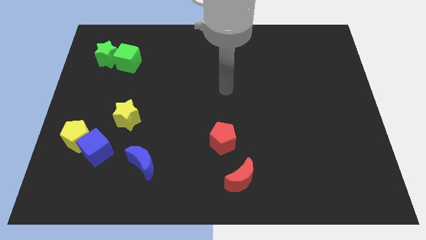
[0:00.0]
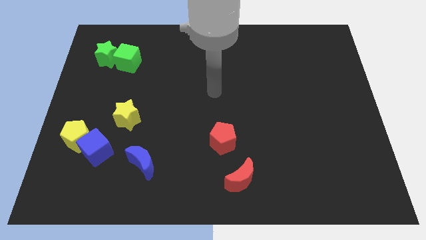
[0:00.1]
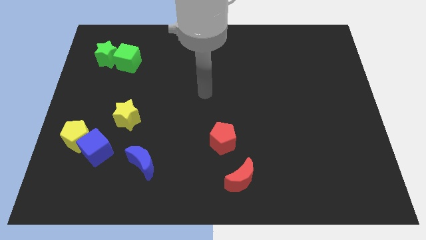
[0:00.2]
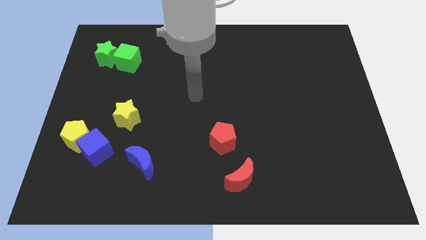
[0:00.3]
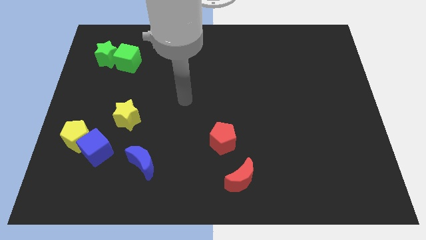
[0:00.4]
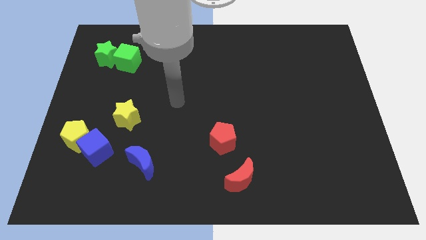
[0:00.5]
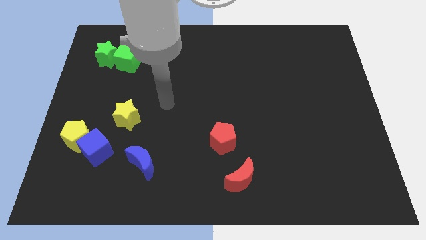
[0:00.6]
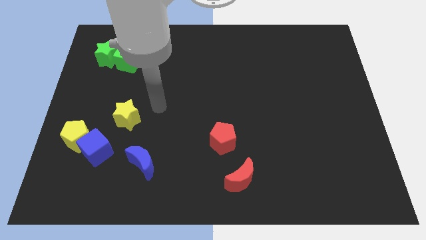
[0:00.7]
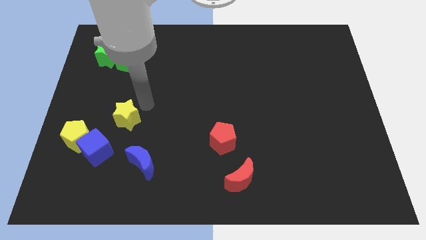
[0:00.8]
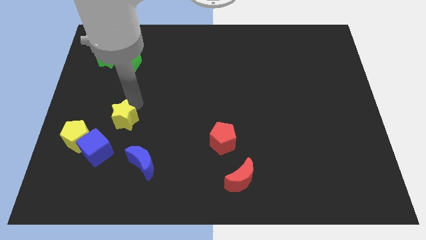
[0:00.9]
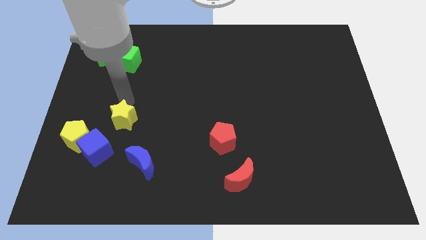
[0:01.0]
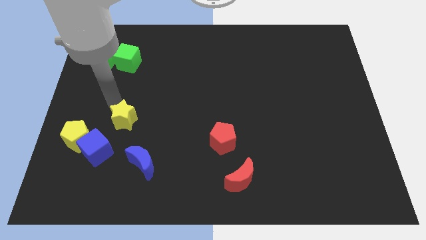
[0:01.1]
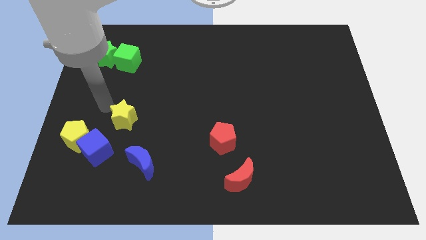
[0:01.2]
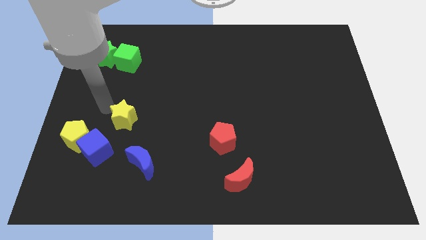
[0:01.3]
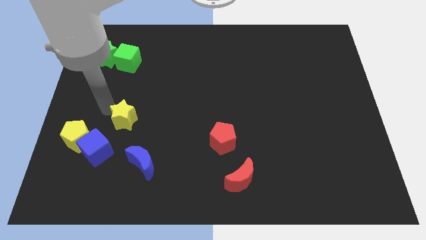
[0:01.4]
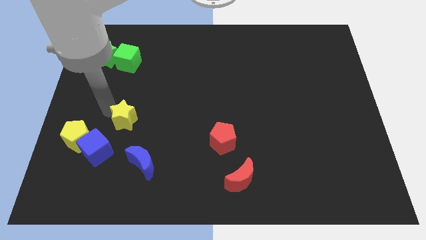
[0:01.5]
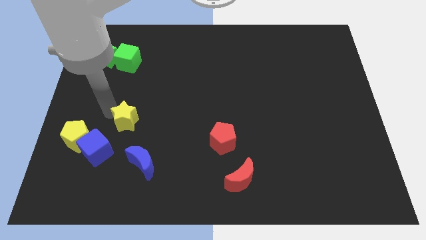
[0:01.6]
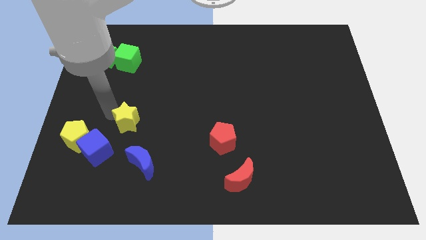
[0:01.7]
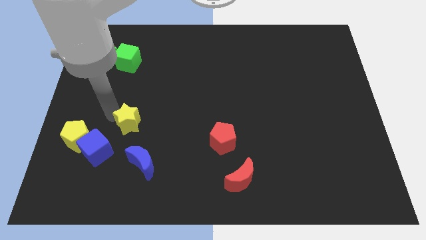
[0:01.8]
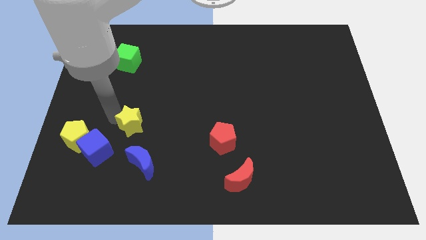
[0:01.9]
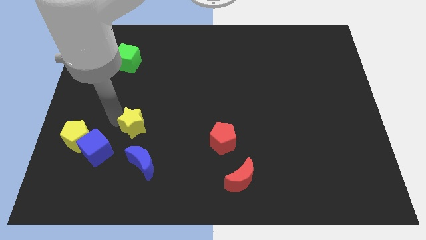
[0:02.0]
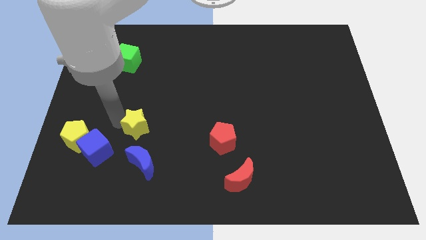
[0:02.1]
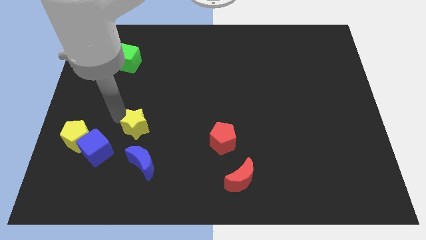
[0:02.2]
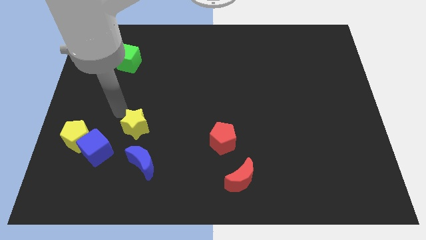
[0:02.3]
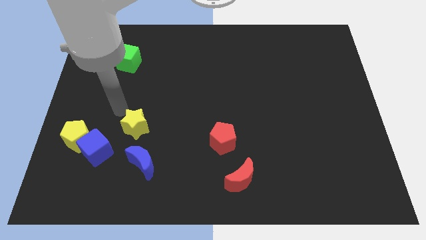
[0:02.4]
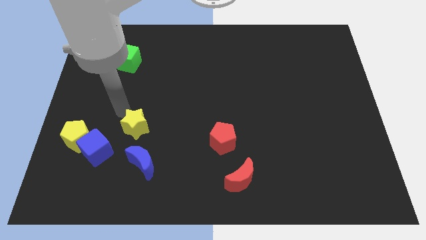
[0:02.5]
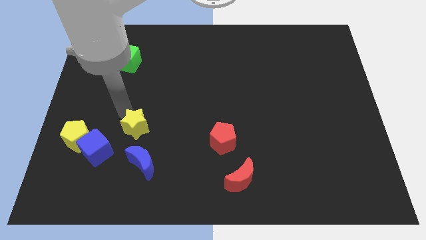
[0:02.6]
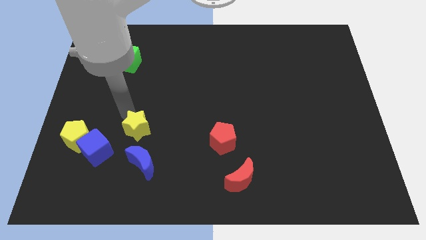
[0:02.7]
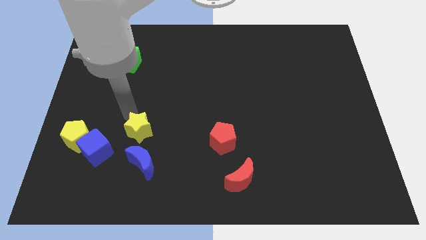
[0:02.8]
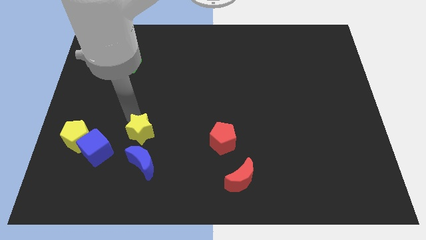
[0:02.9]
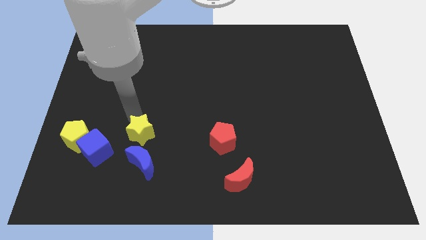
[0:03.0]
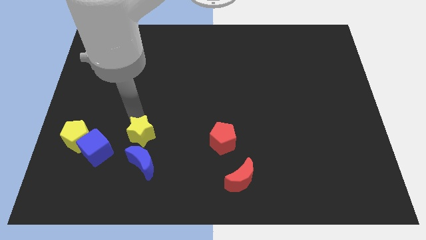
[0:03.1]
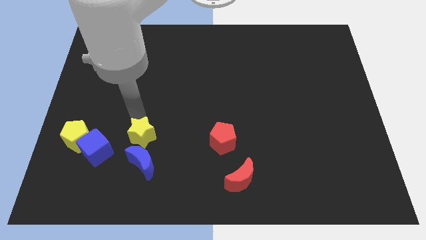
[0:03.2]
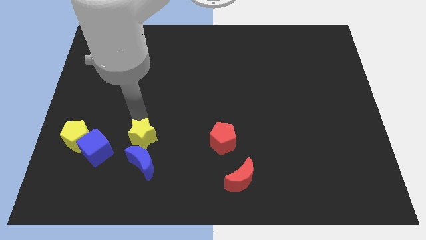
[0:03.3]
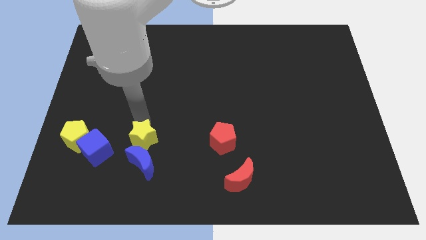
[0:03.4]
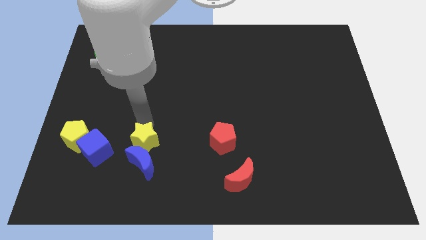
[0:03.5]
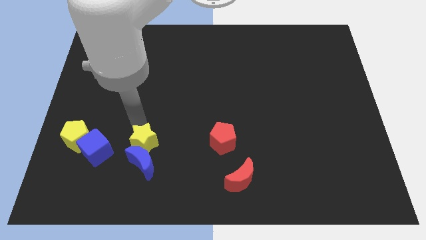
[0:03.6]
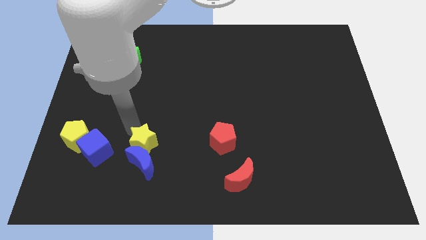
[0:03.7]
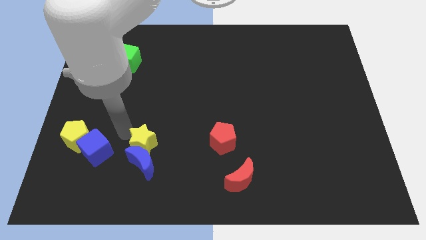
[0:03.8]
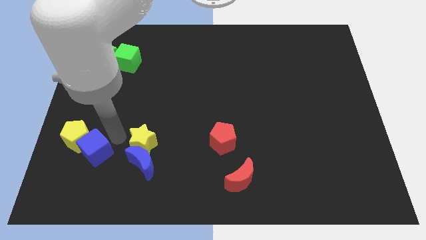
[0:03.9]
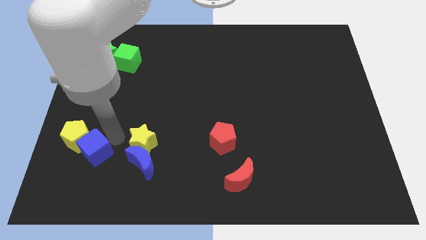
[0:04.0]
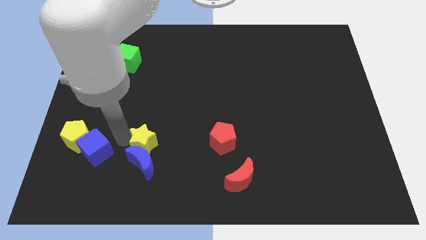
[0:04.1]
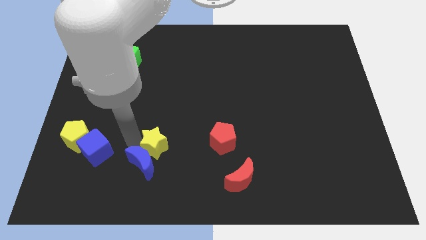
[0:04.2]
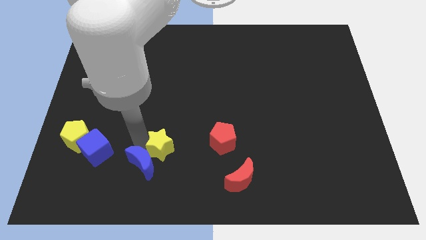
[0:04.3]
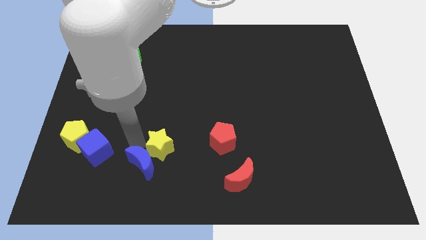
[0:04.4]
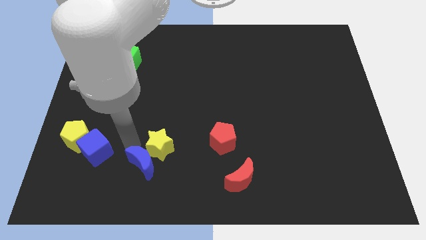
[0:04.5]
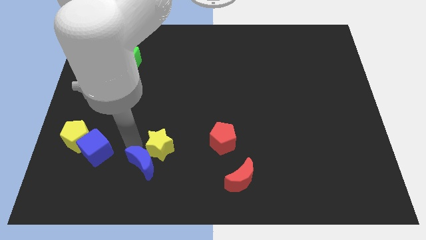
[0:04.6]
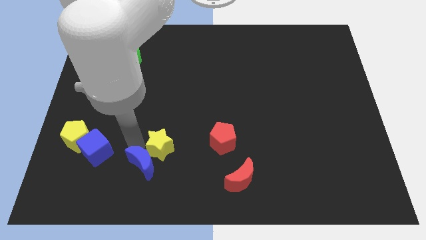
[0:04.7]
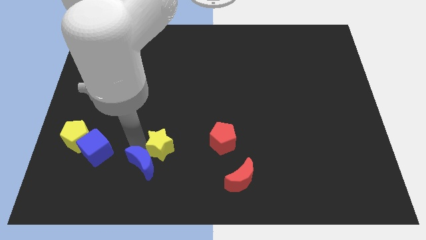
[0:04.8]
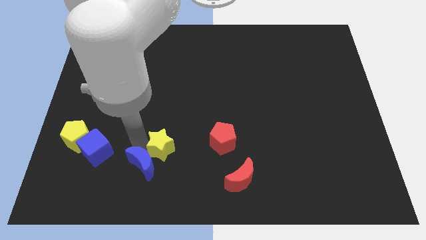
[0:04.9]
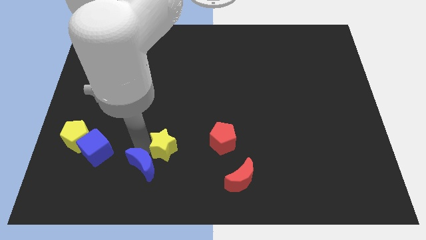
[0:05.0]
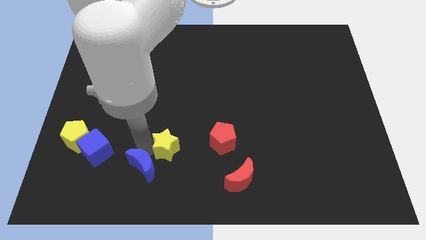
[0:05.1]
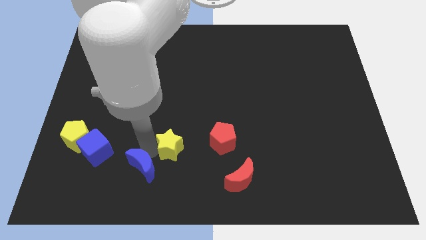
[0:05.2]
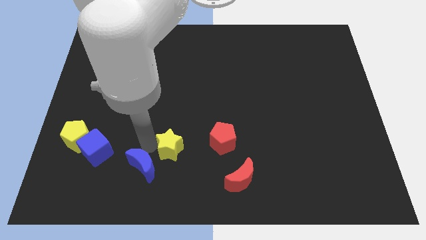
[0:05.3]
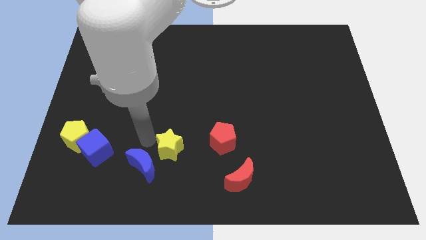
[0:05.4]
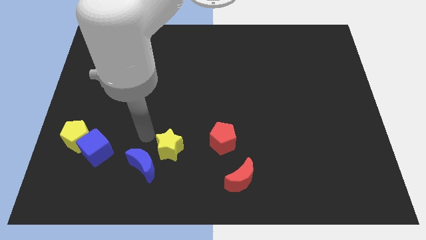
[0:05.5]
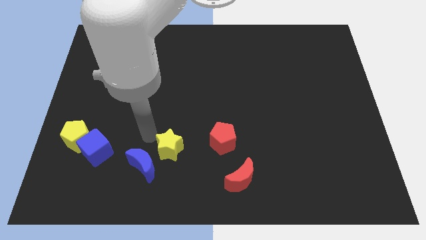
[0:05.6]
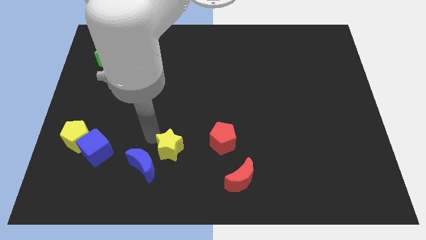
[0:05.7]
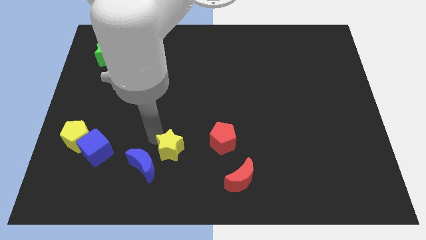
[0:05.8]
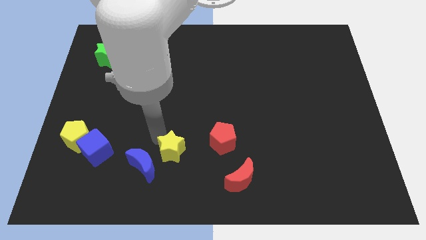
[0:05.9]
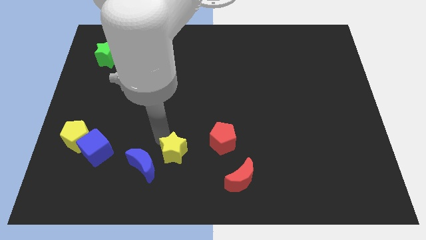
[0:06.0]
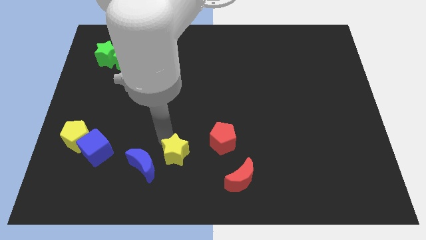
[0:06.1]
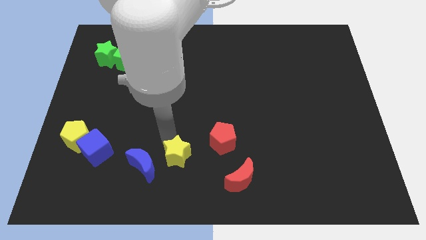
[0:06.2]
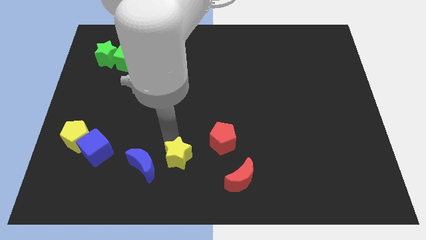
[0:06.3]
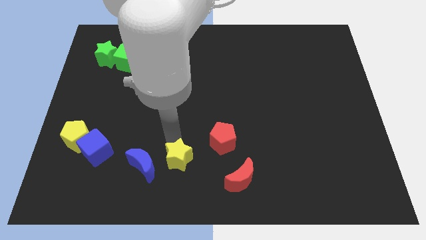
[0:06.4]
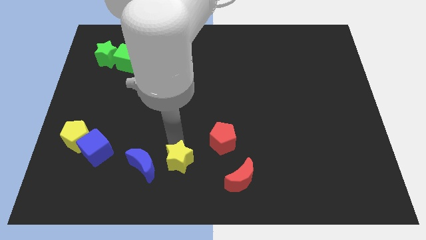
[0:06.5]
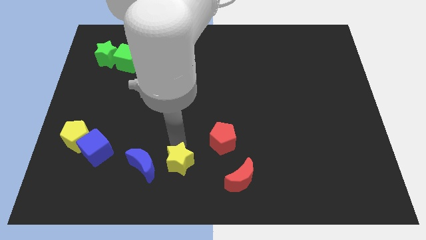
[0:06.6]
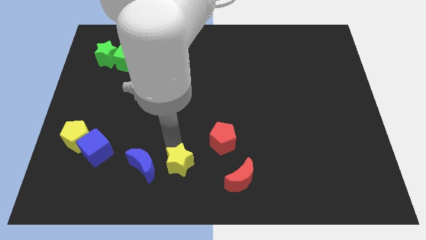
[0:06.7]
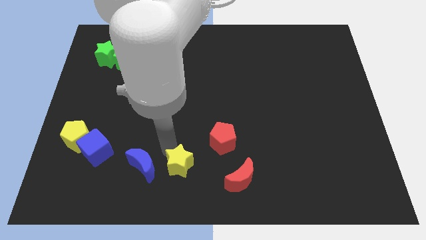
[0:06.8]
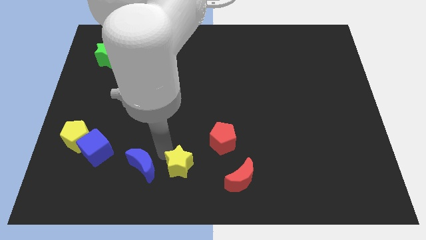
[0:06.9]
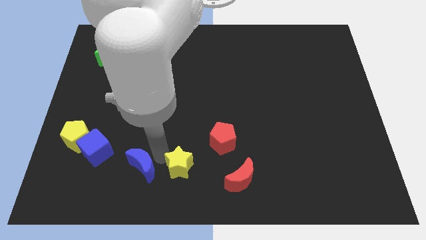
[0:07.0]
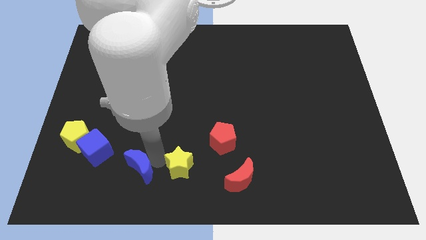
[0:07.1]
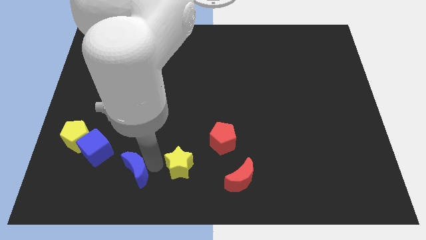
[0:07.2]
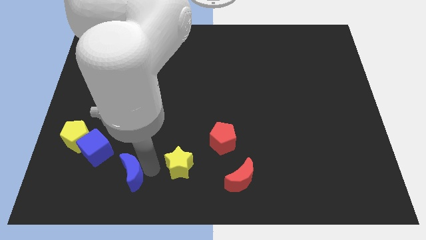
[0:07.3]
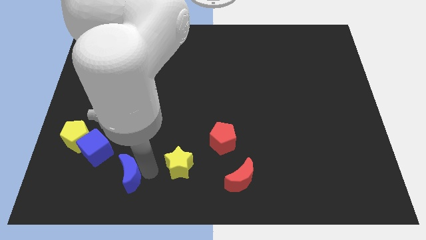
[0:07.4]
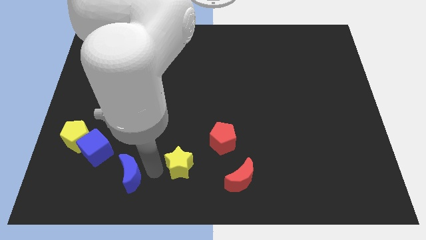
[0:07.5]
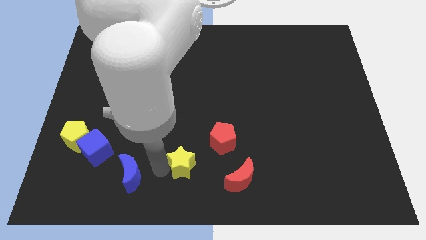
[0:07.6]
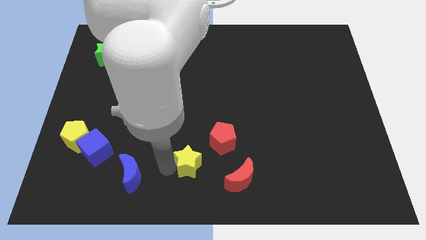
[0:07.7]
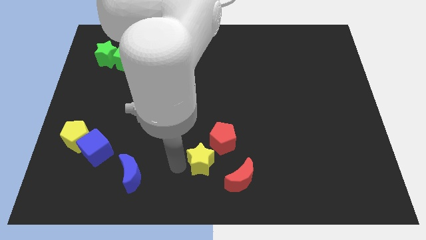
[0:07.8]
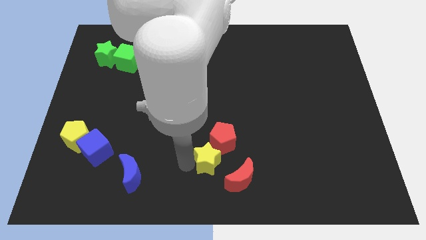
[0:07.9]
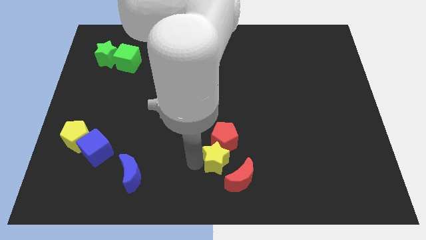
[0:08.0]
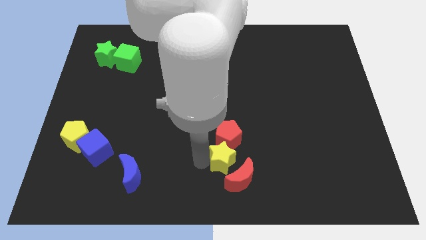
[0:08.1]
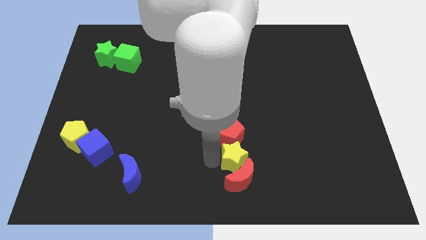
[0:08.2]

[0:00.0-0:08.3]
slide the yellow star to the top right side of the red moon

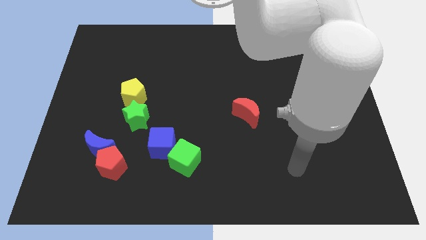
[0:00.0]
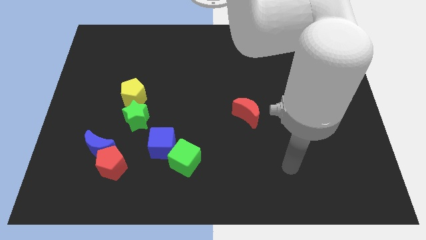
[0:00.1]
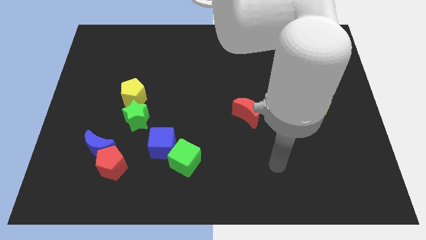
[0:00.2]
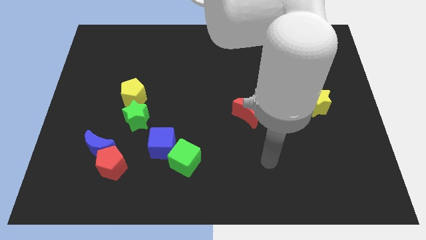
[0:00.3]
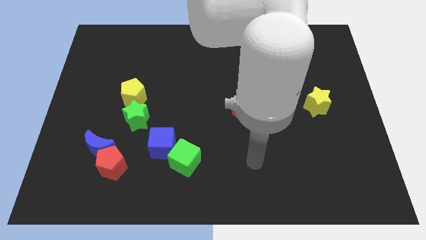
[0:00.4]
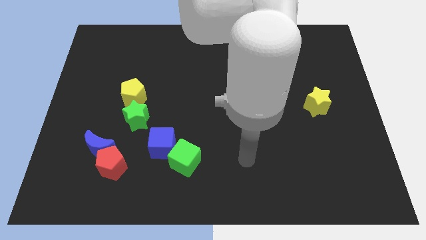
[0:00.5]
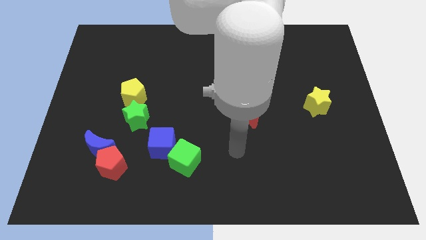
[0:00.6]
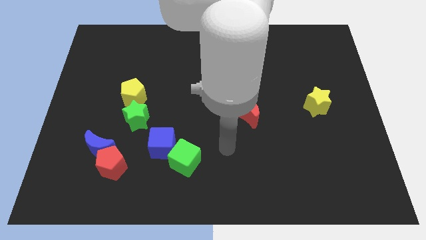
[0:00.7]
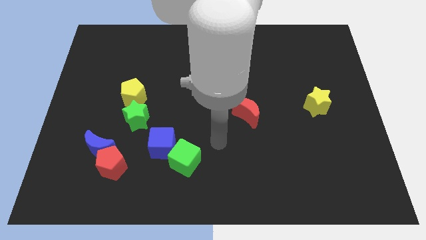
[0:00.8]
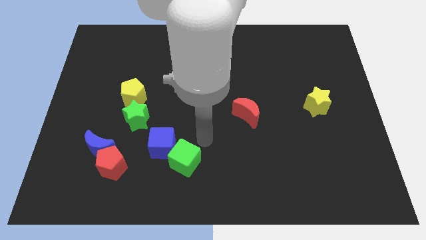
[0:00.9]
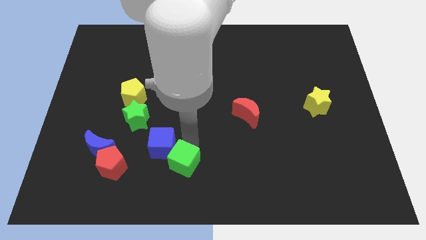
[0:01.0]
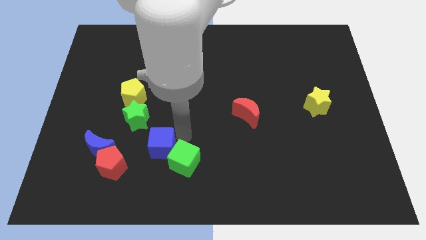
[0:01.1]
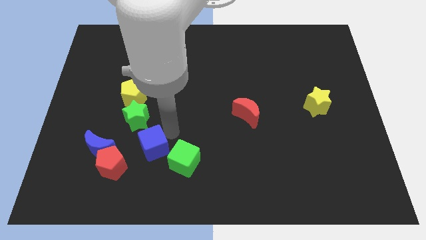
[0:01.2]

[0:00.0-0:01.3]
slide the green star above the blue cube
